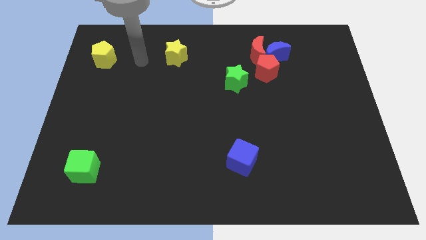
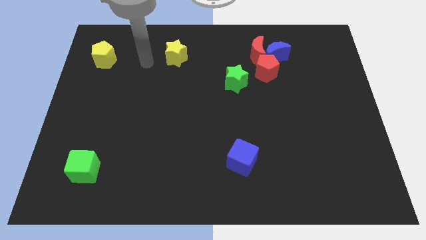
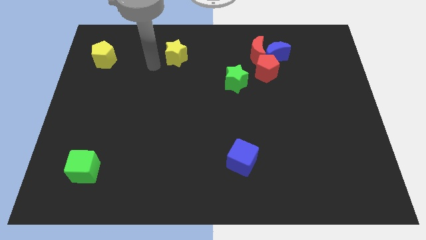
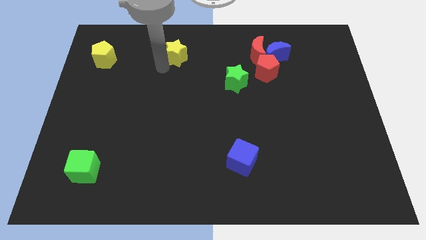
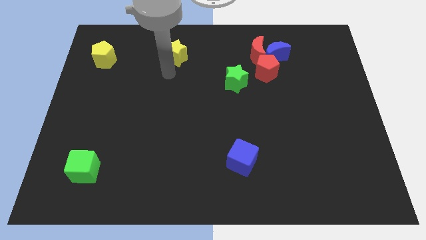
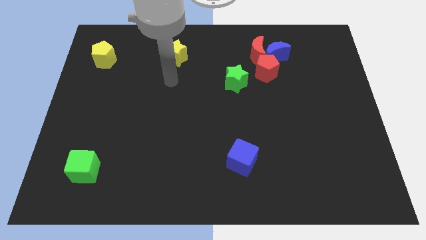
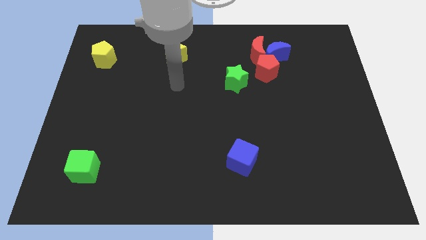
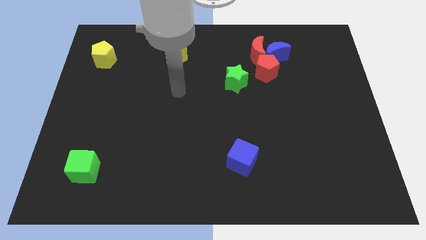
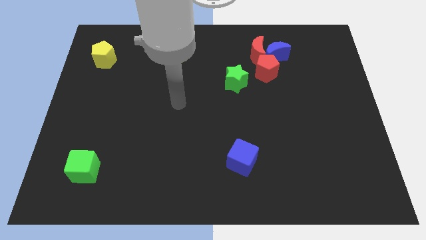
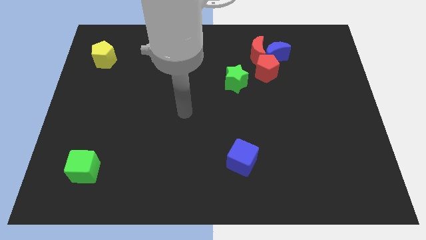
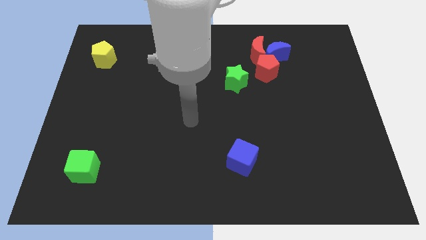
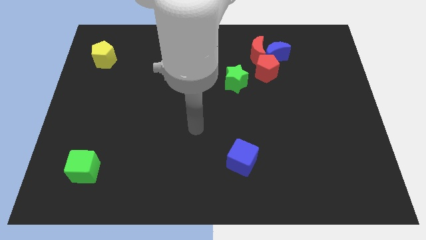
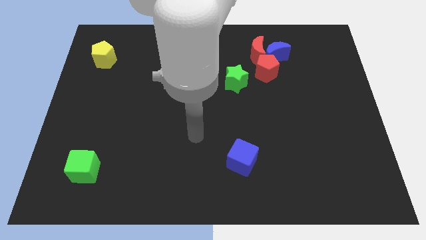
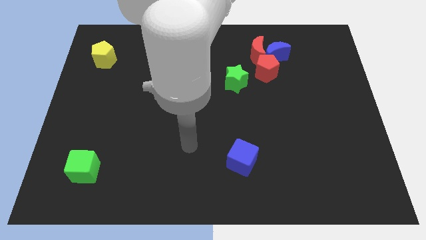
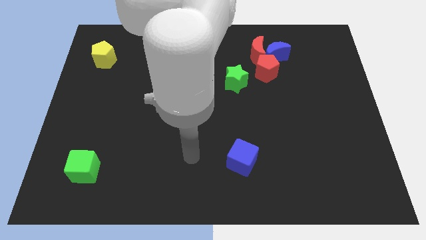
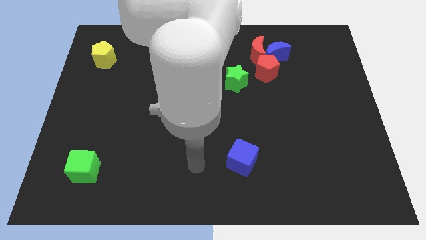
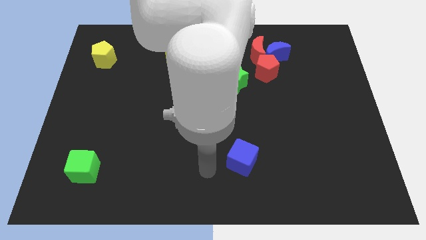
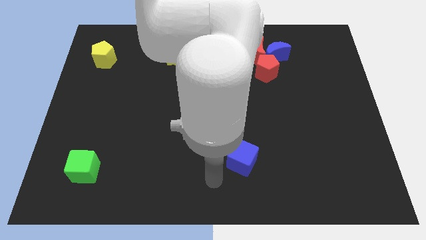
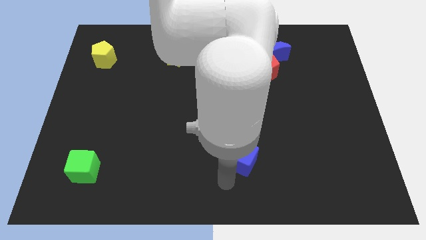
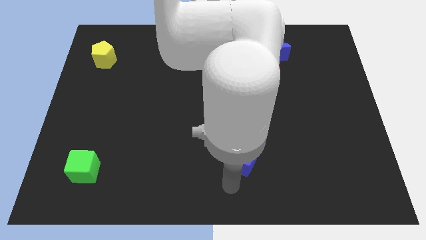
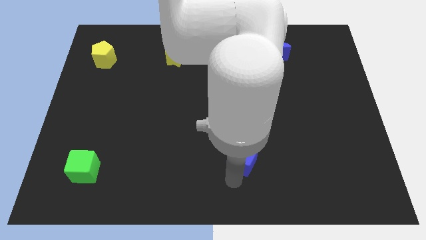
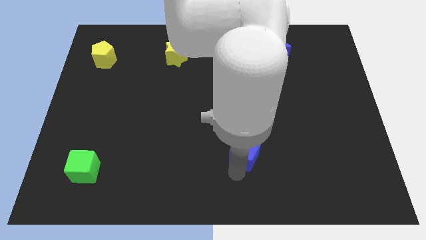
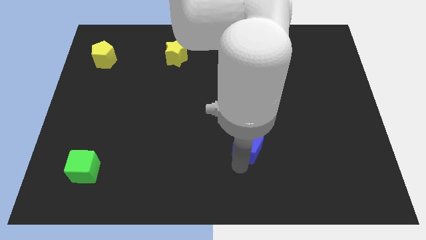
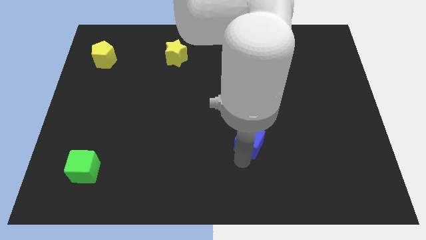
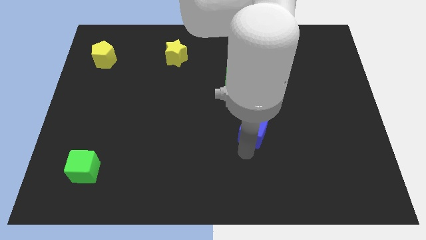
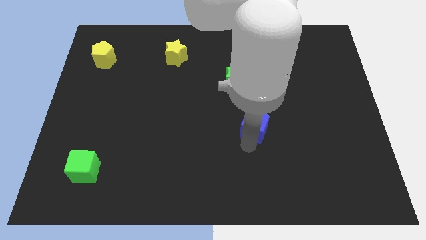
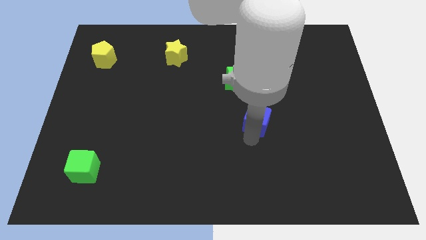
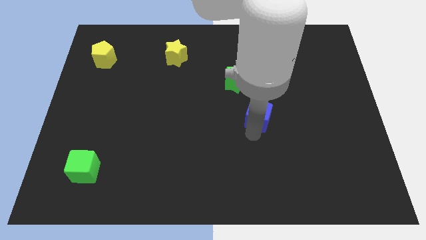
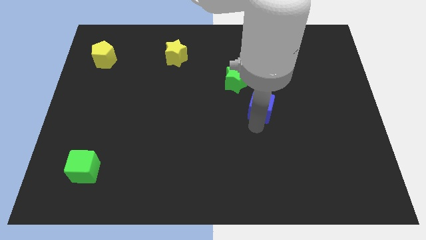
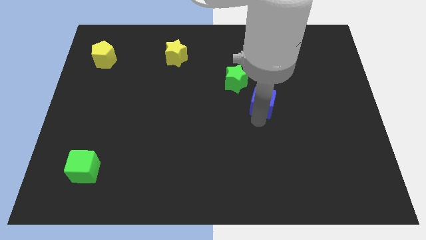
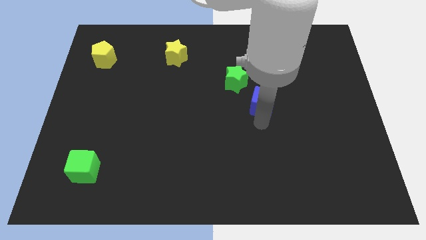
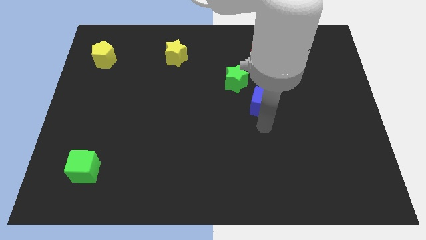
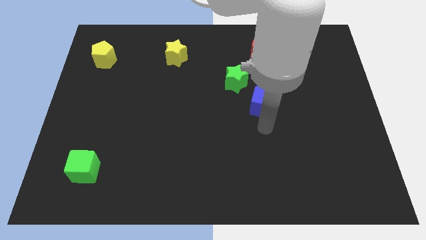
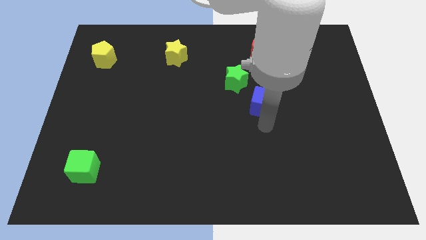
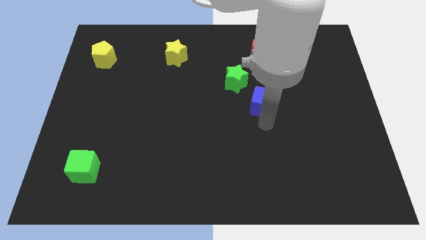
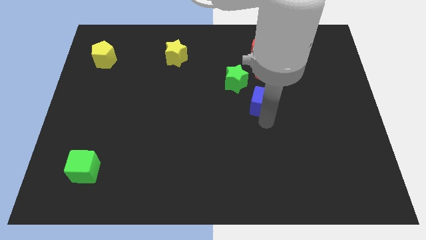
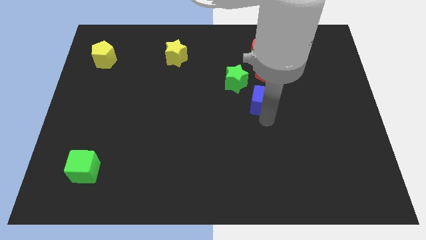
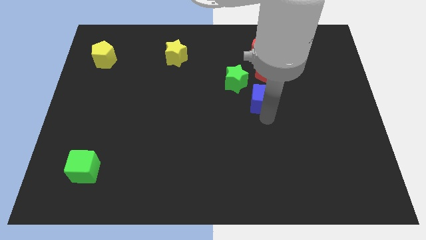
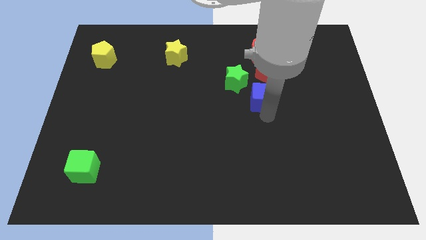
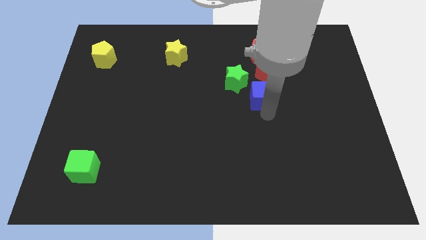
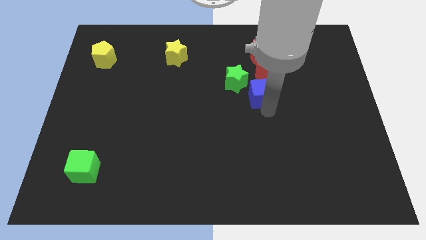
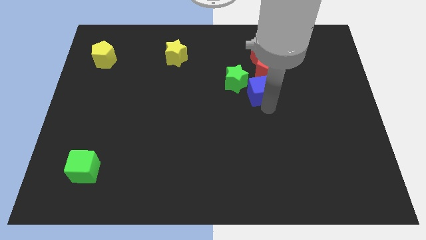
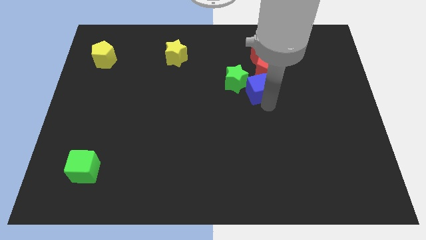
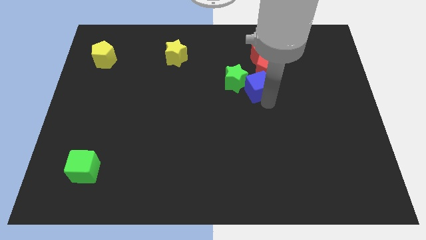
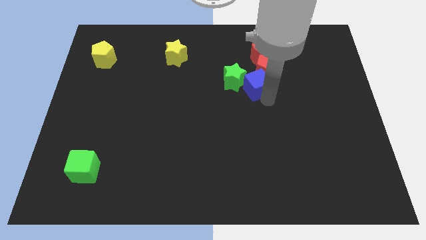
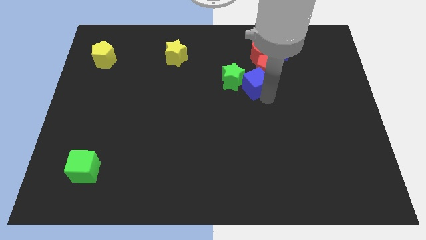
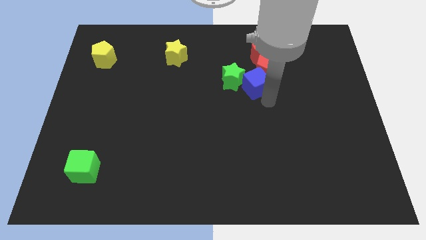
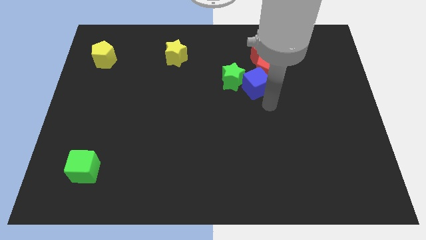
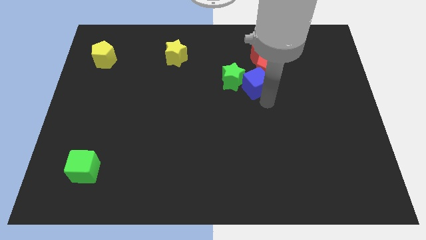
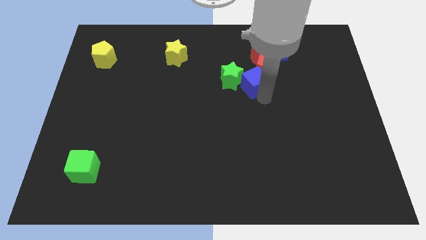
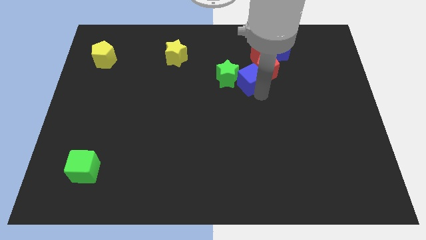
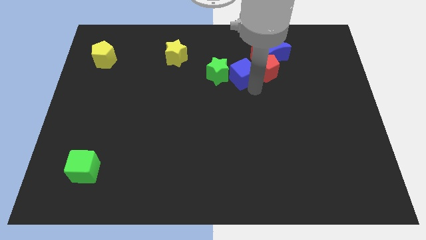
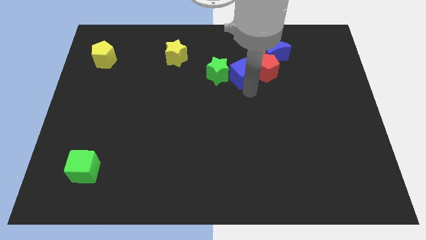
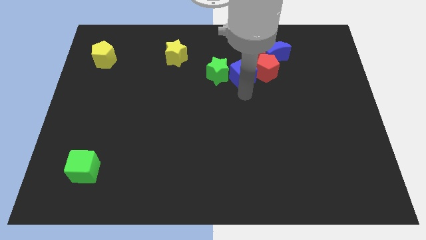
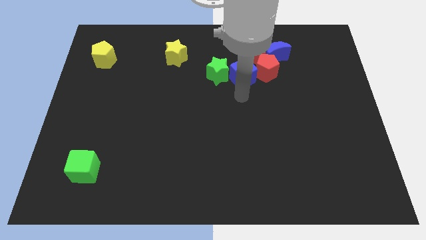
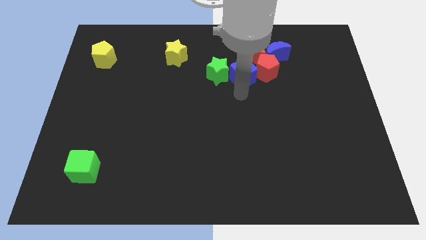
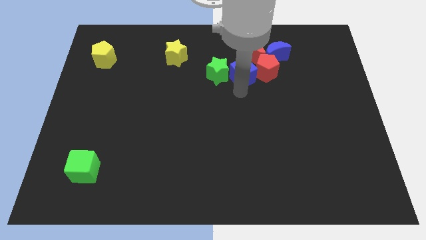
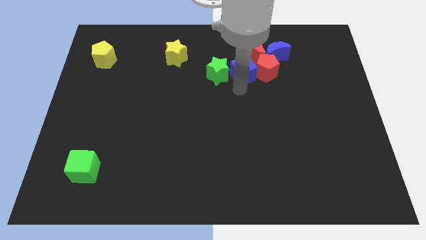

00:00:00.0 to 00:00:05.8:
push the blue cube to the top left of the red pentagon

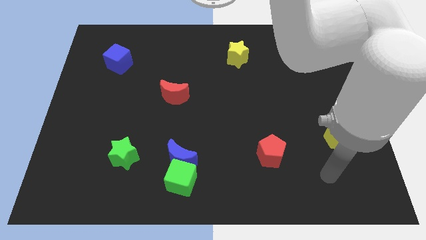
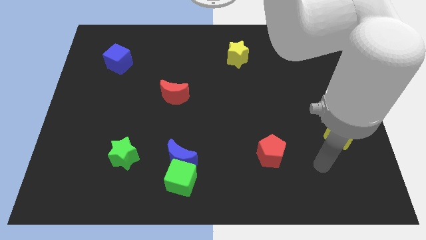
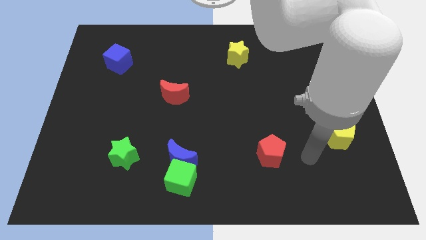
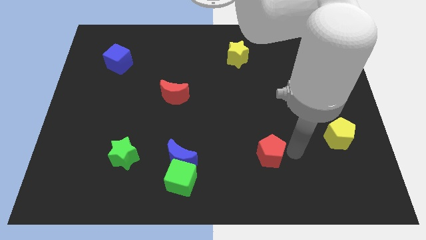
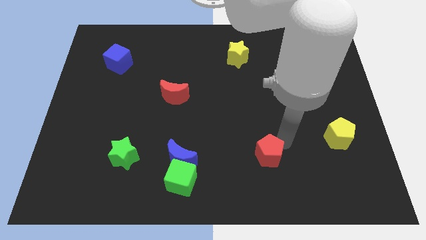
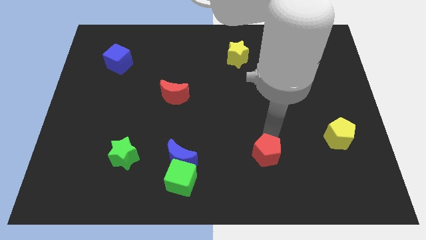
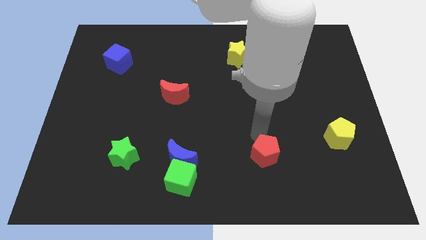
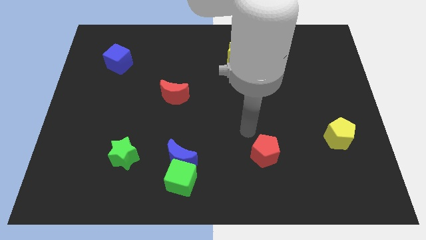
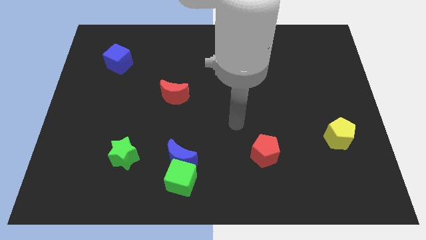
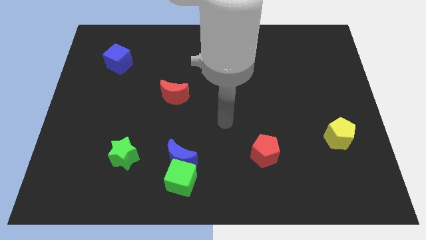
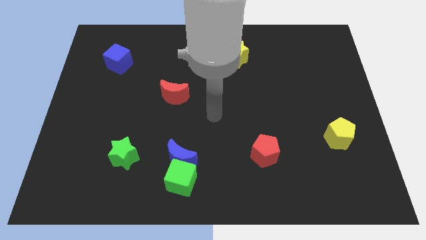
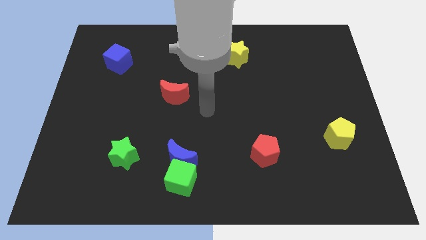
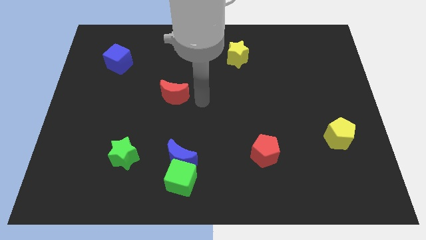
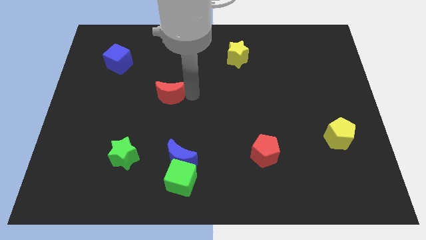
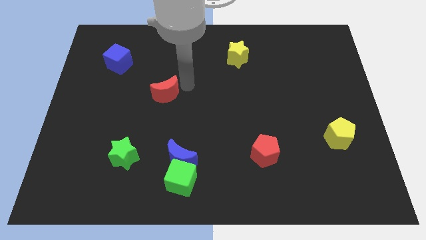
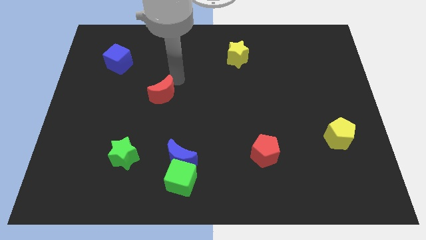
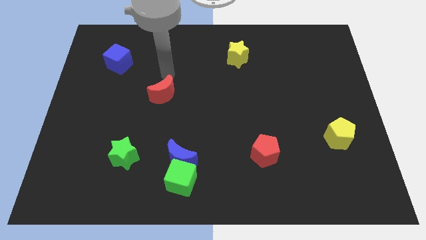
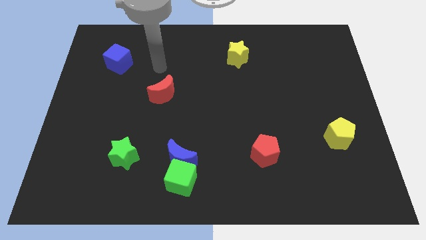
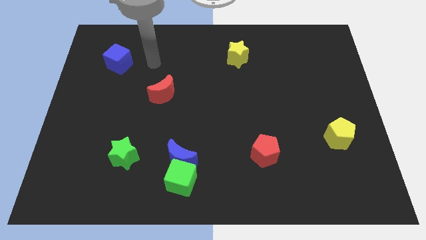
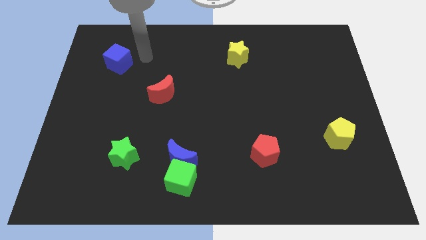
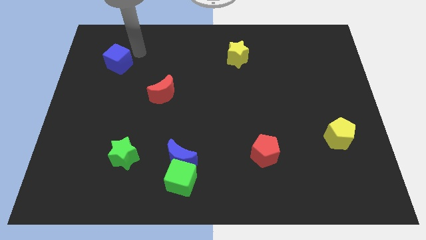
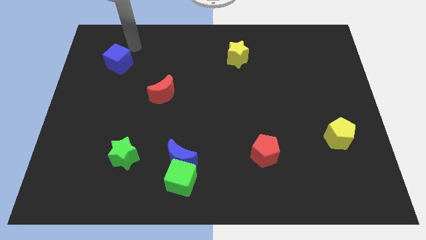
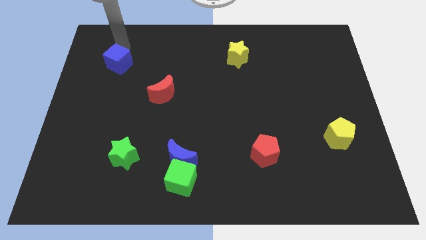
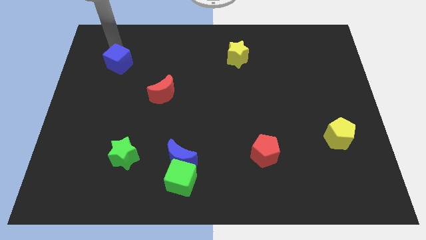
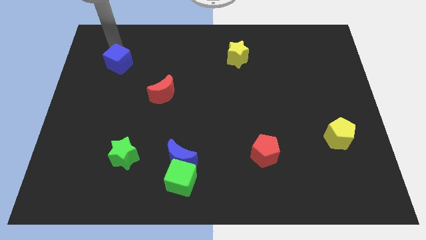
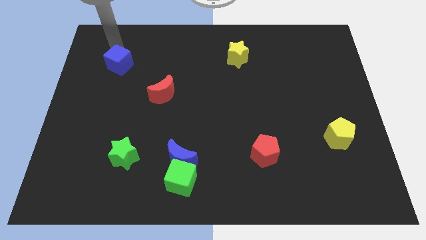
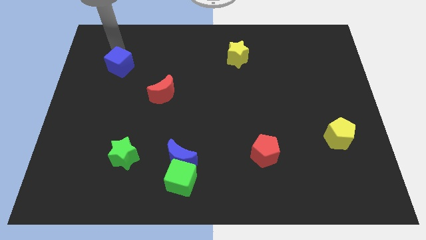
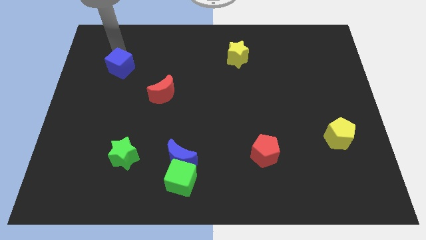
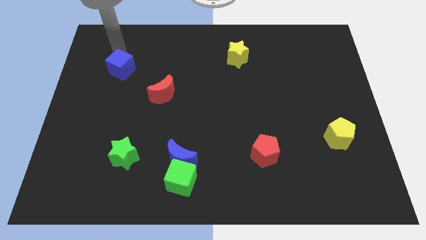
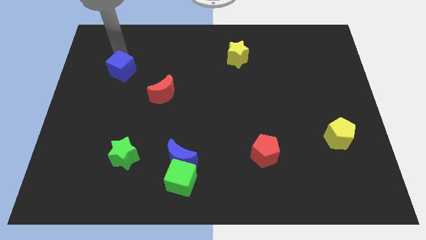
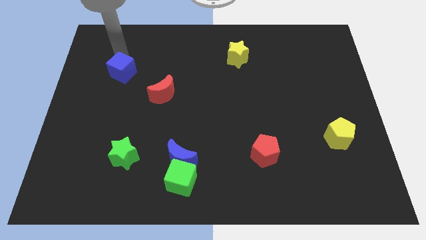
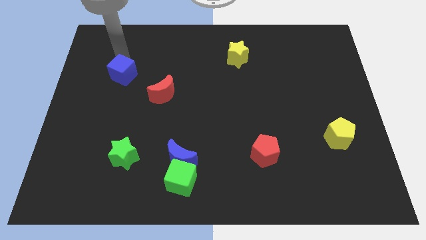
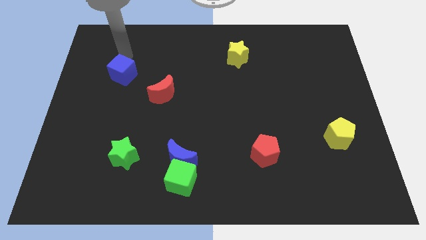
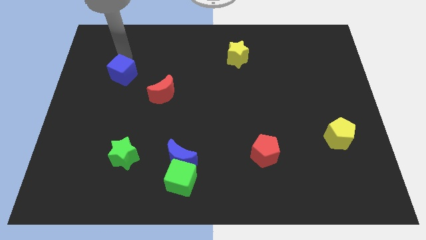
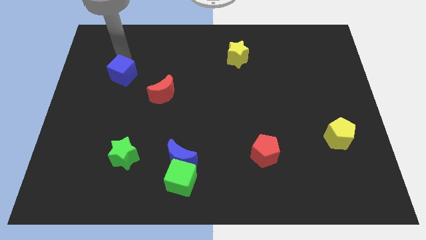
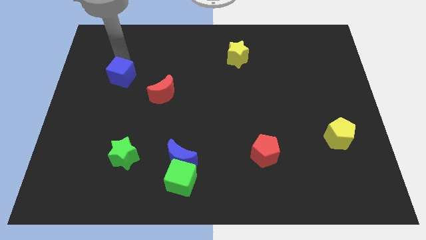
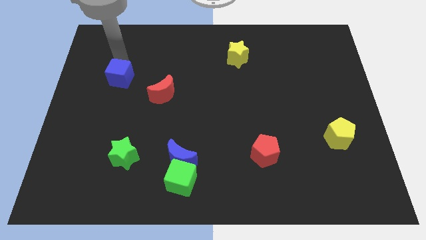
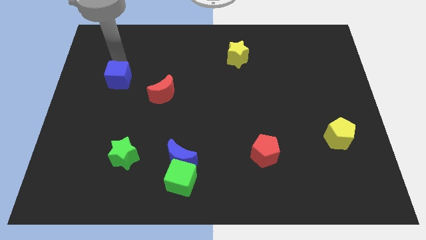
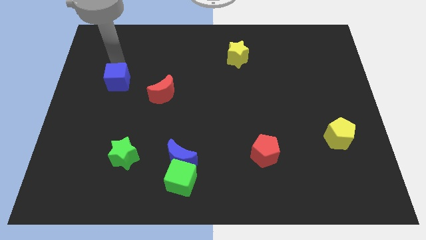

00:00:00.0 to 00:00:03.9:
slide the blue cube to the left side of the red moon
